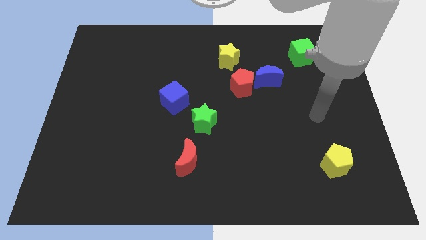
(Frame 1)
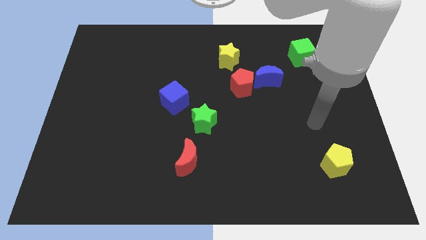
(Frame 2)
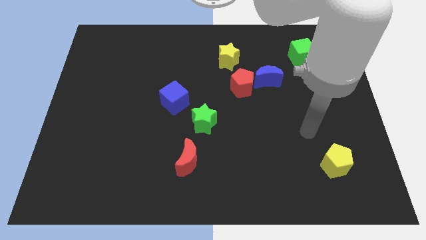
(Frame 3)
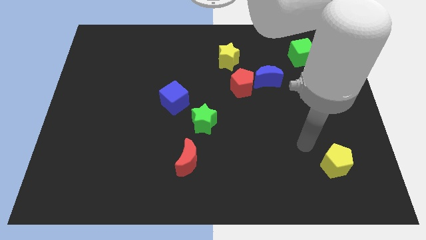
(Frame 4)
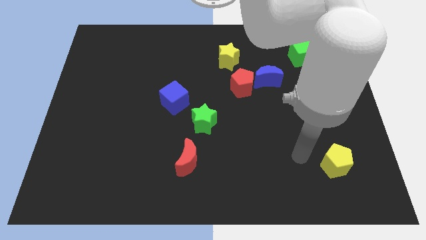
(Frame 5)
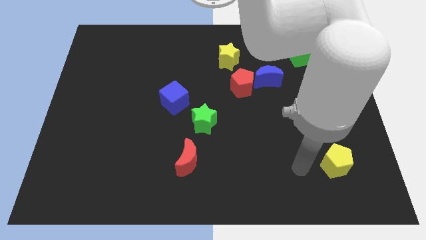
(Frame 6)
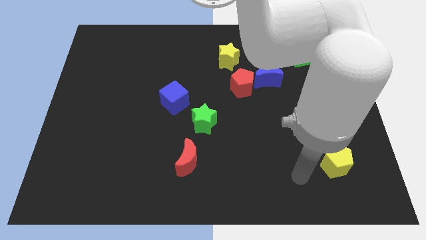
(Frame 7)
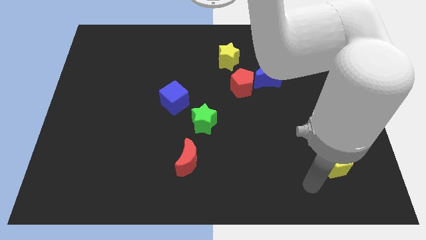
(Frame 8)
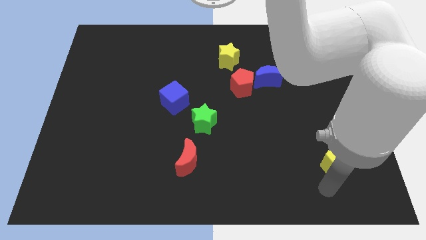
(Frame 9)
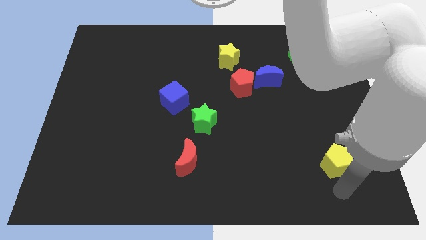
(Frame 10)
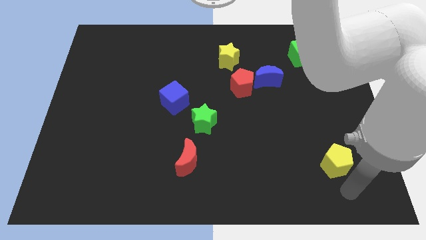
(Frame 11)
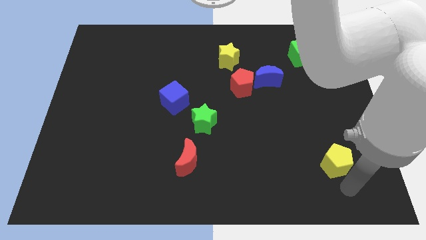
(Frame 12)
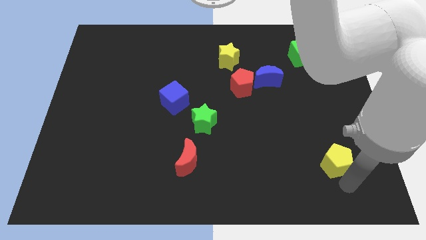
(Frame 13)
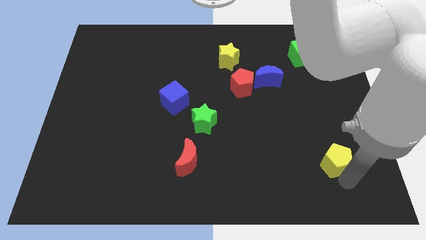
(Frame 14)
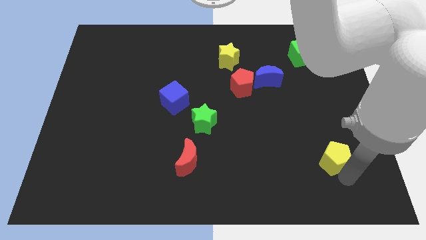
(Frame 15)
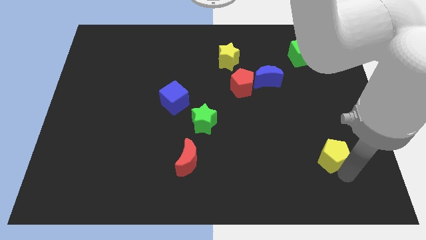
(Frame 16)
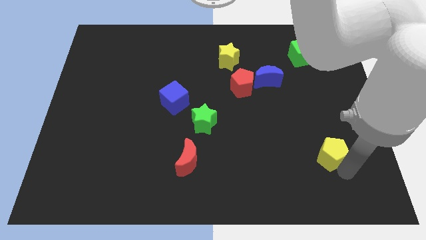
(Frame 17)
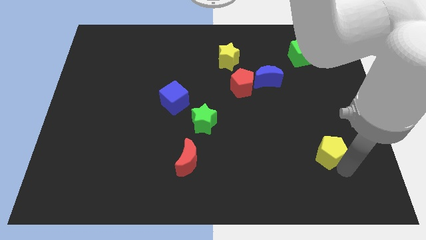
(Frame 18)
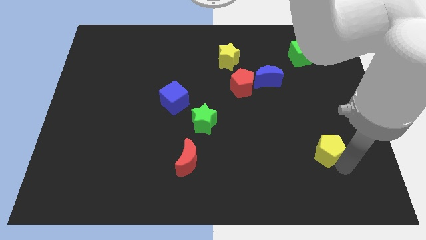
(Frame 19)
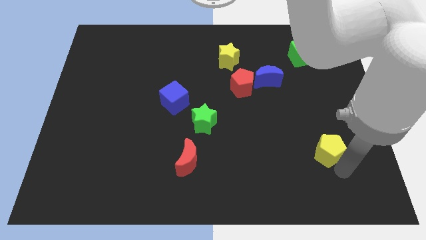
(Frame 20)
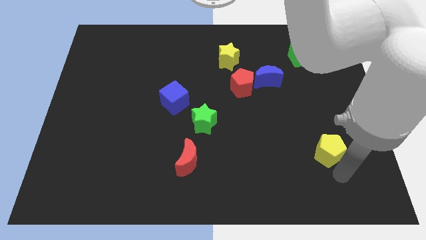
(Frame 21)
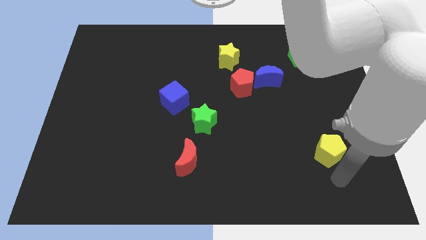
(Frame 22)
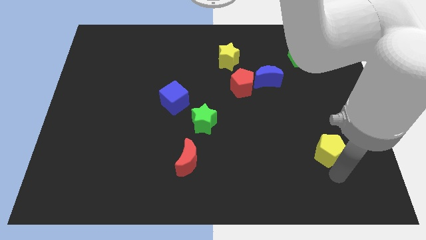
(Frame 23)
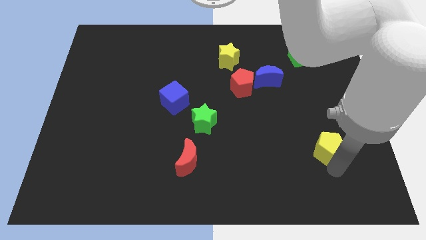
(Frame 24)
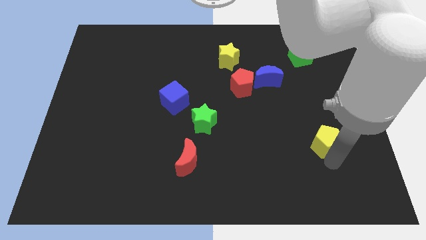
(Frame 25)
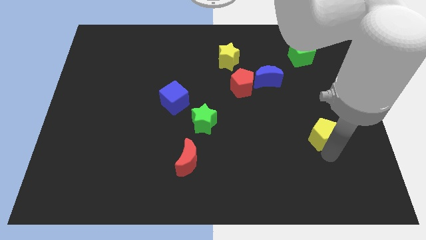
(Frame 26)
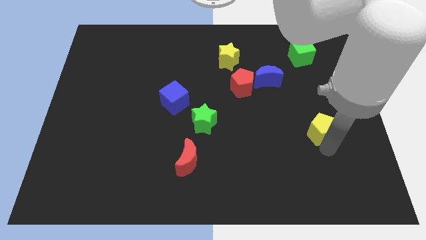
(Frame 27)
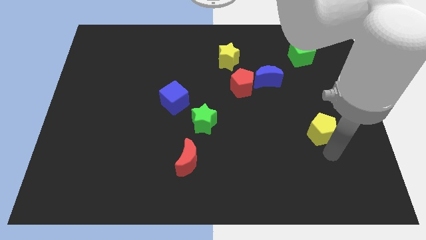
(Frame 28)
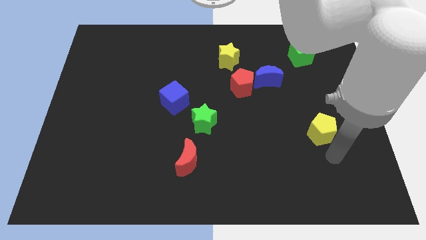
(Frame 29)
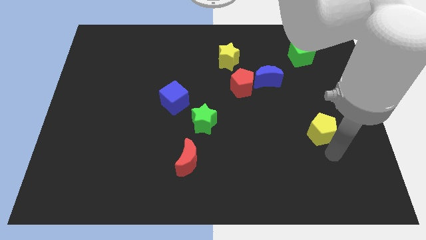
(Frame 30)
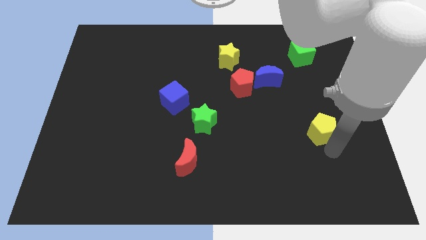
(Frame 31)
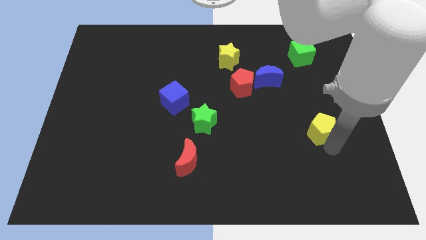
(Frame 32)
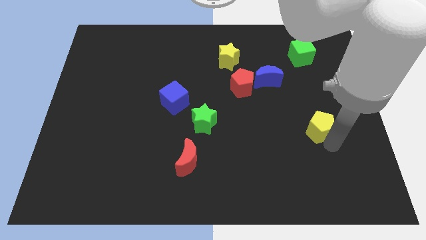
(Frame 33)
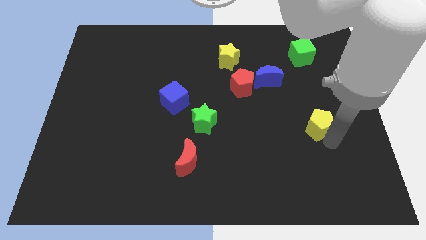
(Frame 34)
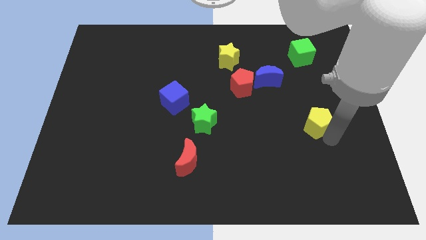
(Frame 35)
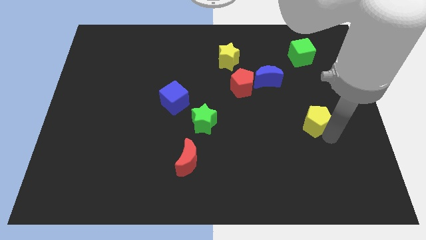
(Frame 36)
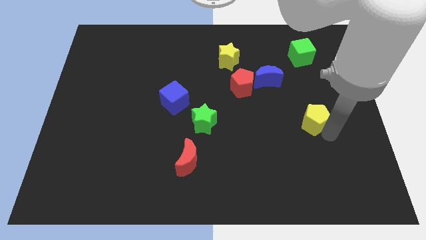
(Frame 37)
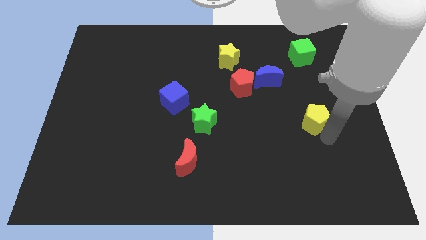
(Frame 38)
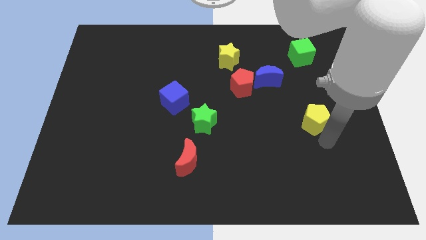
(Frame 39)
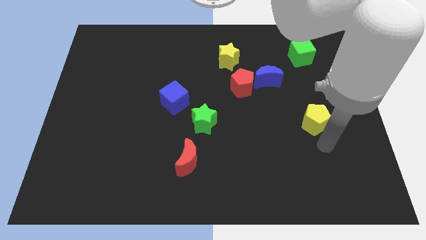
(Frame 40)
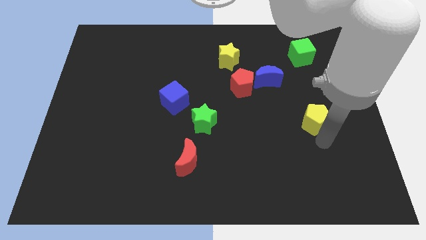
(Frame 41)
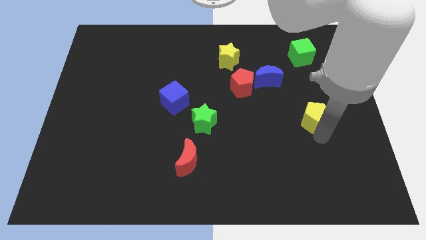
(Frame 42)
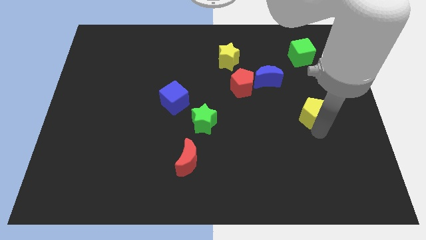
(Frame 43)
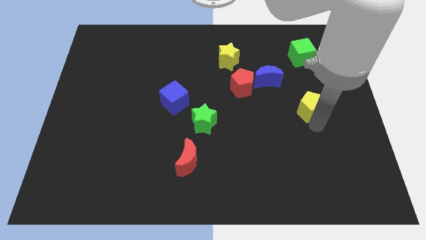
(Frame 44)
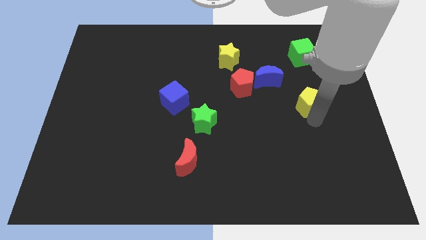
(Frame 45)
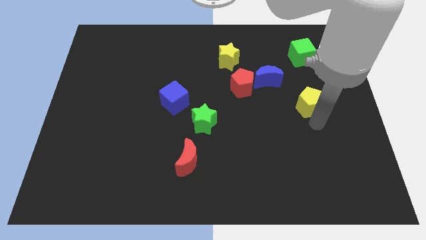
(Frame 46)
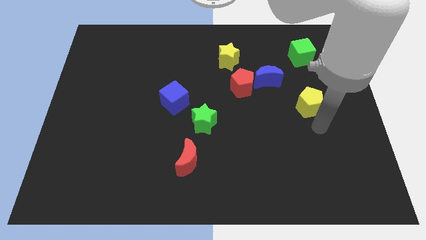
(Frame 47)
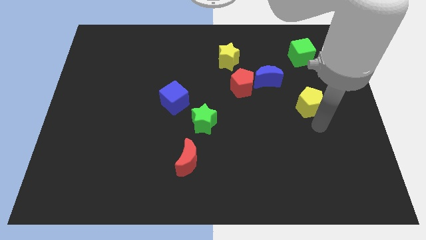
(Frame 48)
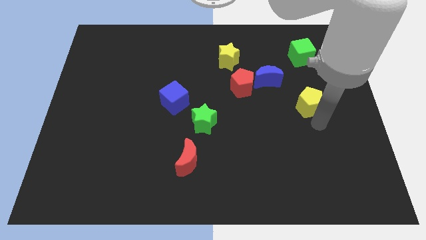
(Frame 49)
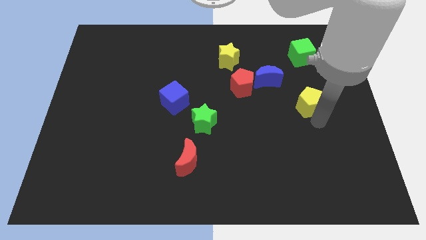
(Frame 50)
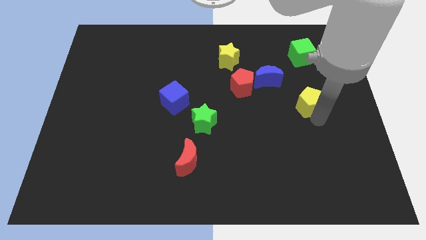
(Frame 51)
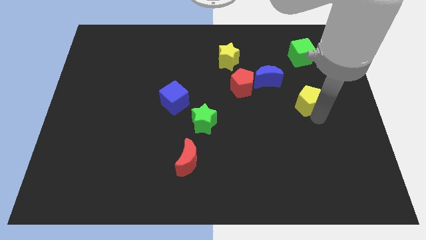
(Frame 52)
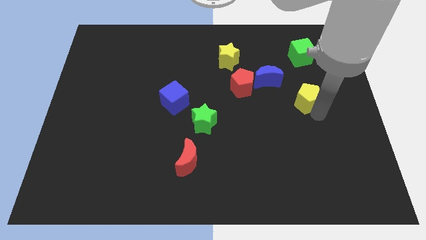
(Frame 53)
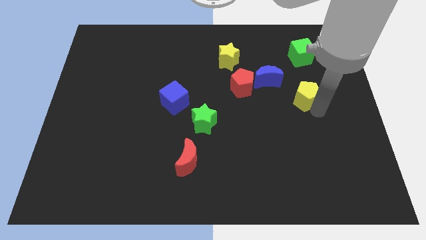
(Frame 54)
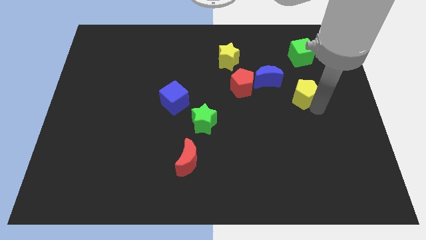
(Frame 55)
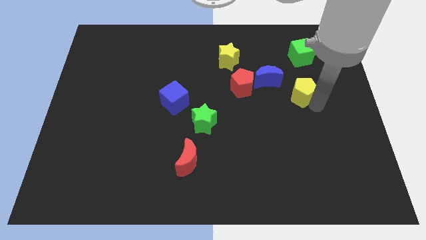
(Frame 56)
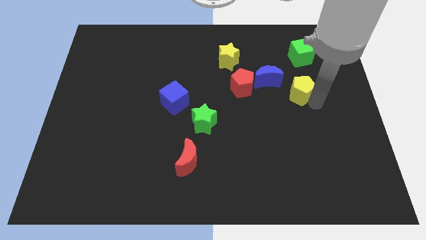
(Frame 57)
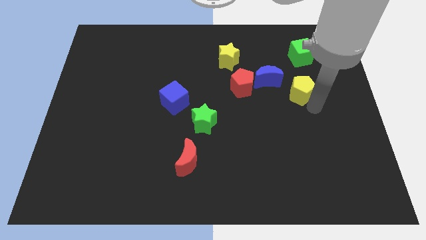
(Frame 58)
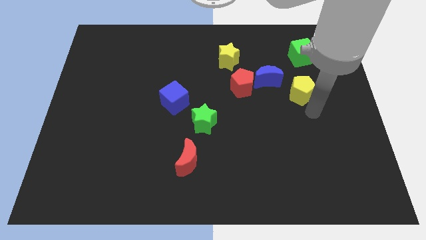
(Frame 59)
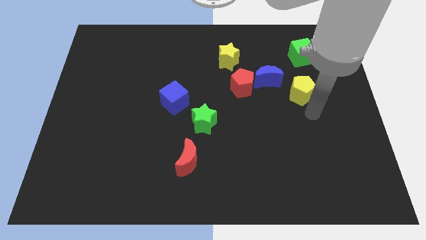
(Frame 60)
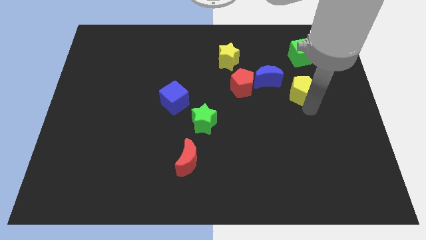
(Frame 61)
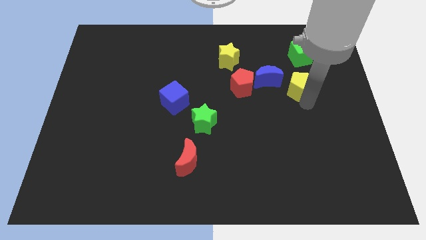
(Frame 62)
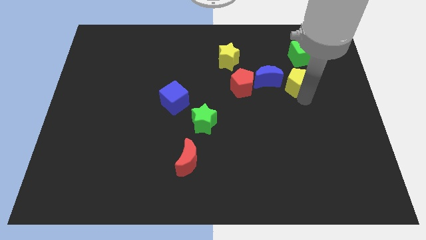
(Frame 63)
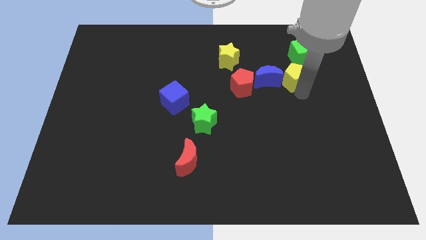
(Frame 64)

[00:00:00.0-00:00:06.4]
move the yellow pentagon diagonally up and to the right of the blue moon
